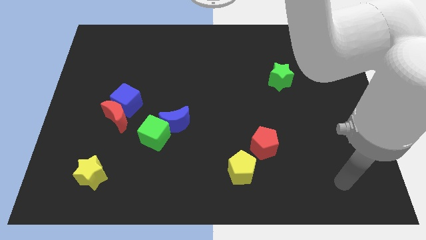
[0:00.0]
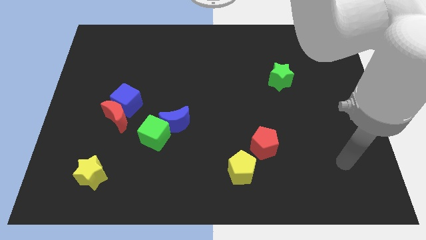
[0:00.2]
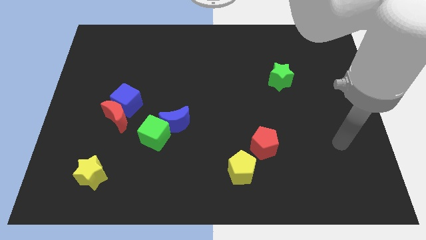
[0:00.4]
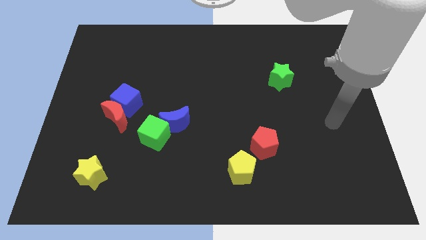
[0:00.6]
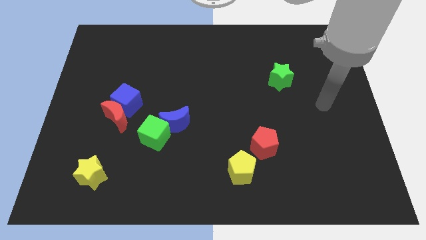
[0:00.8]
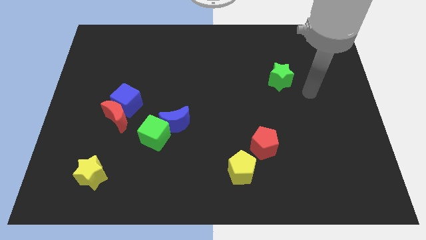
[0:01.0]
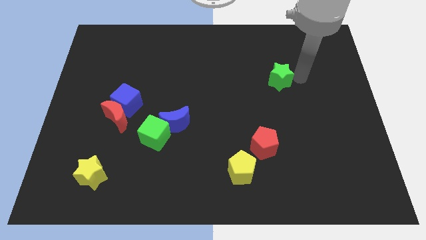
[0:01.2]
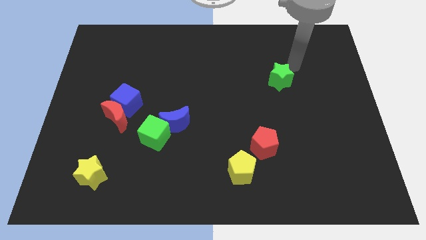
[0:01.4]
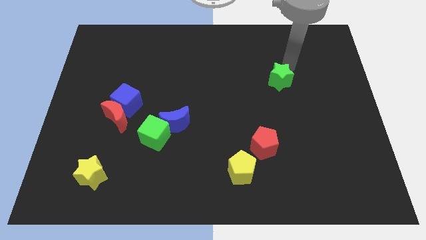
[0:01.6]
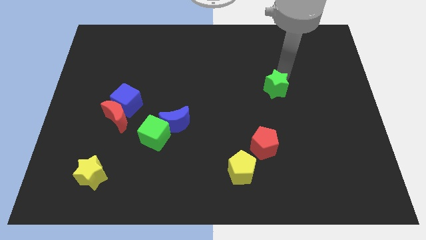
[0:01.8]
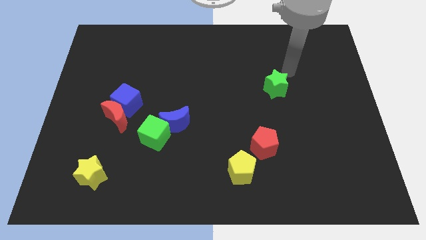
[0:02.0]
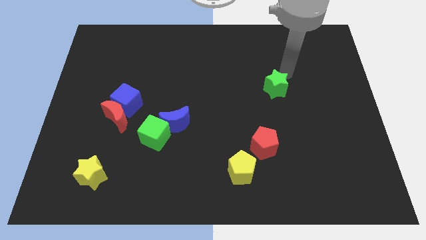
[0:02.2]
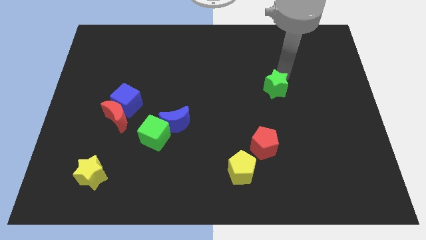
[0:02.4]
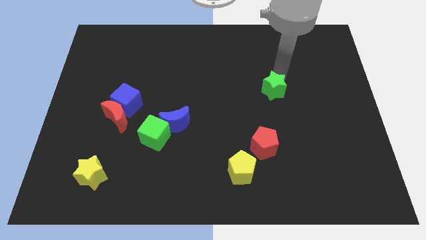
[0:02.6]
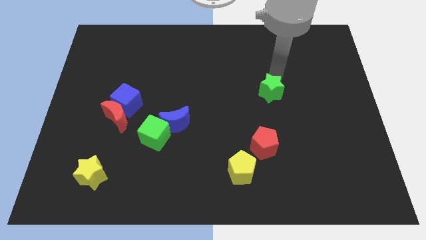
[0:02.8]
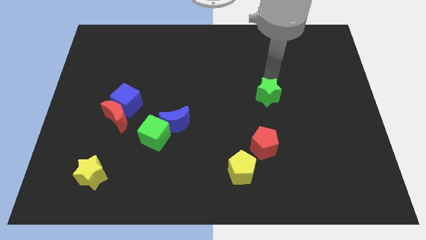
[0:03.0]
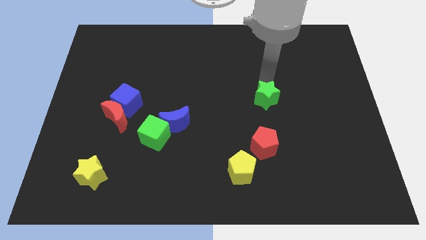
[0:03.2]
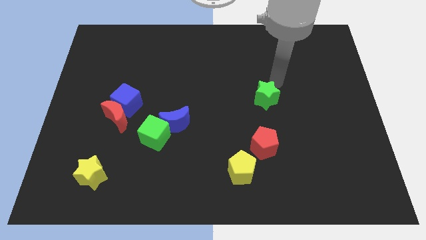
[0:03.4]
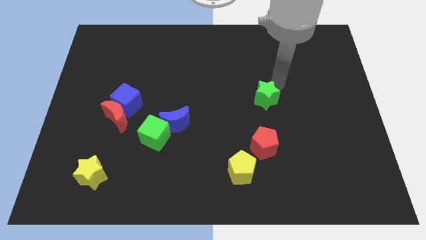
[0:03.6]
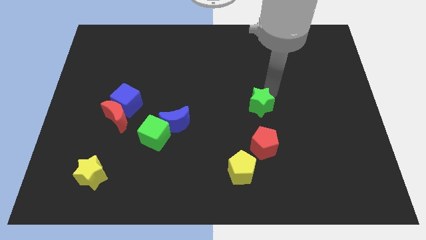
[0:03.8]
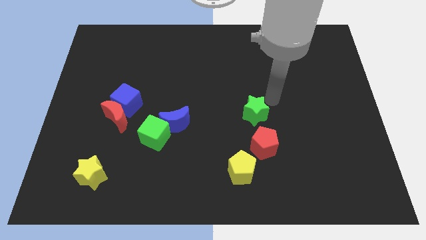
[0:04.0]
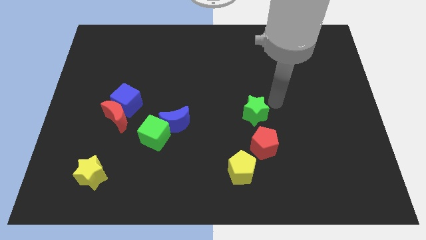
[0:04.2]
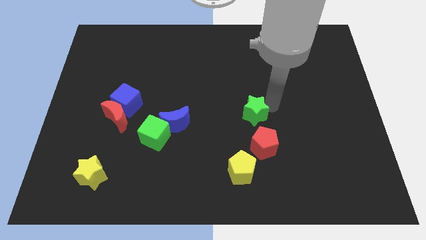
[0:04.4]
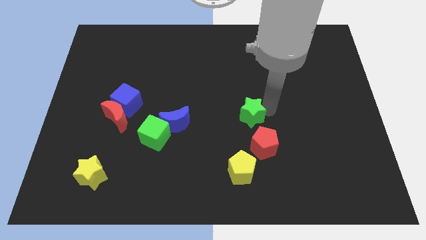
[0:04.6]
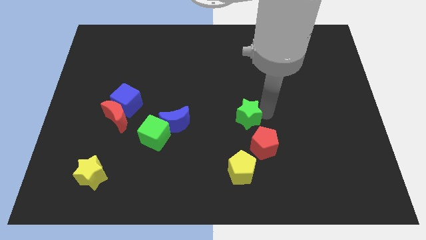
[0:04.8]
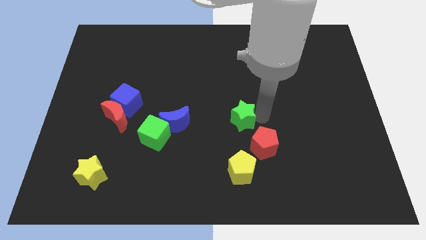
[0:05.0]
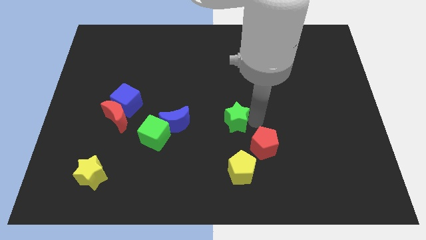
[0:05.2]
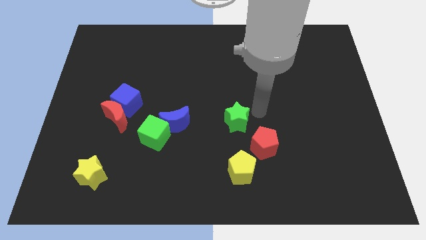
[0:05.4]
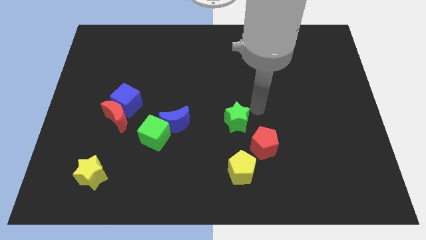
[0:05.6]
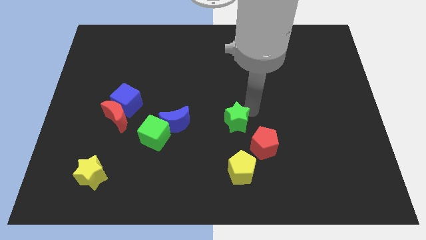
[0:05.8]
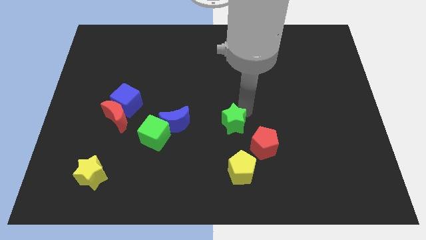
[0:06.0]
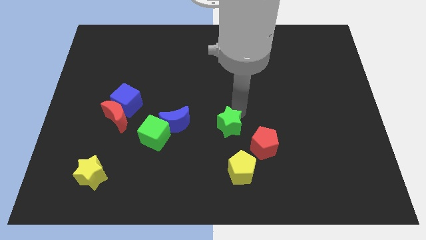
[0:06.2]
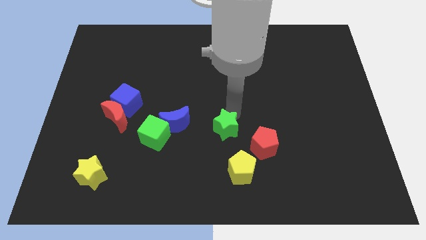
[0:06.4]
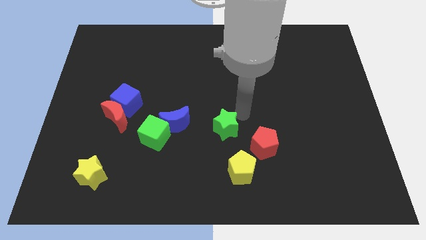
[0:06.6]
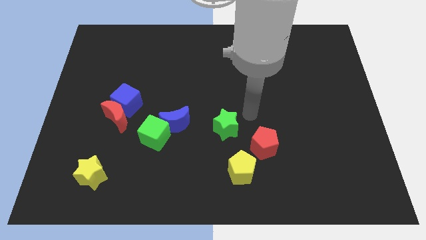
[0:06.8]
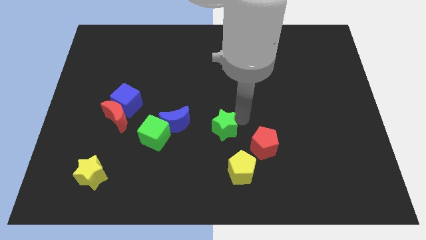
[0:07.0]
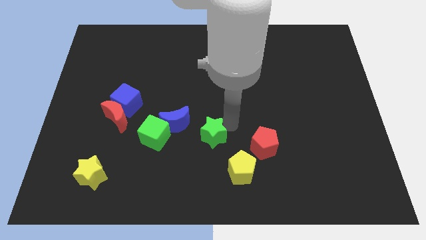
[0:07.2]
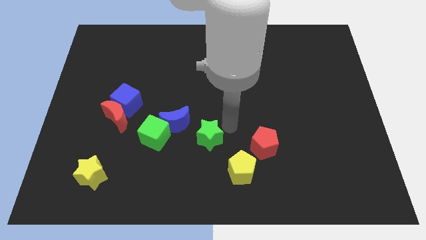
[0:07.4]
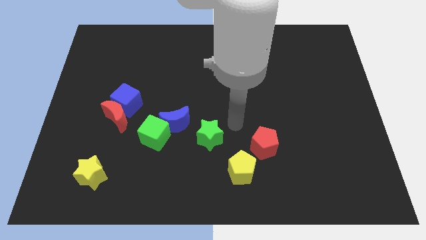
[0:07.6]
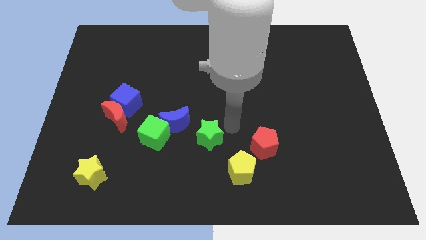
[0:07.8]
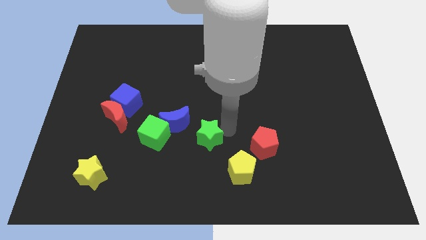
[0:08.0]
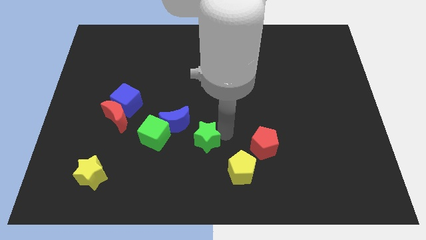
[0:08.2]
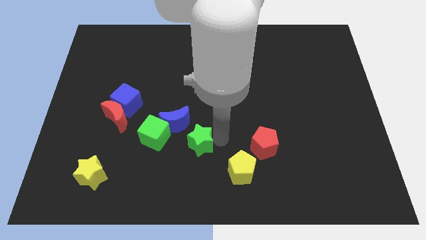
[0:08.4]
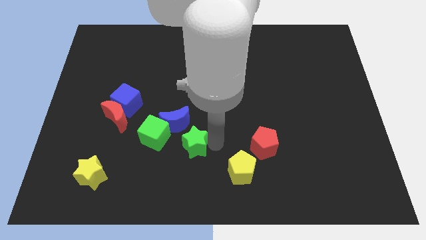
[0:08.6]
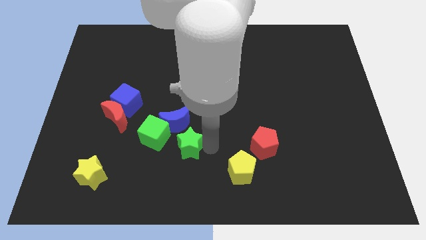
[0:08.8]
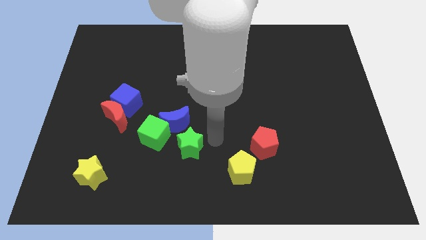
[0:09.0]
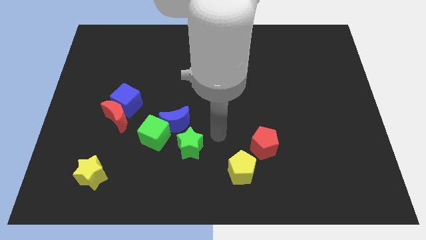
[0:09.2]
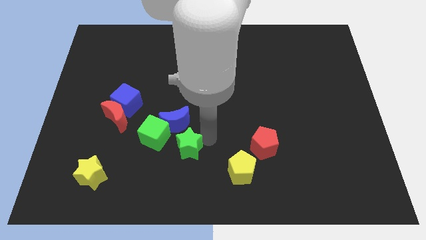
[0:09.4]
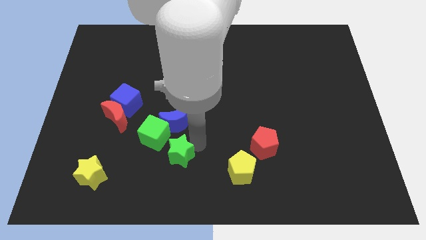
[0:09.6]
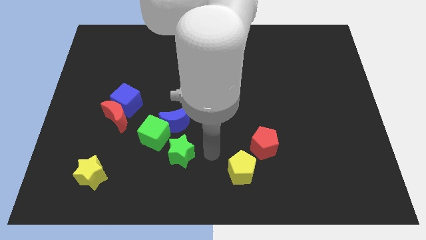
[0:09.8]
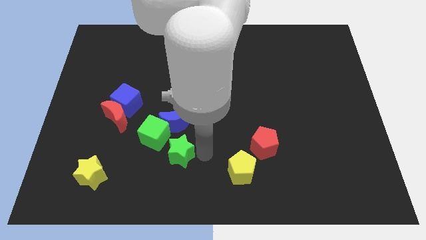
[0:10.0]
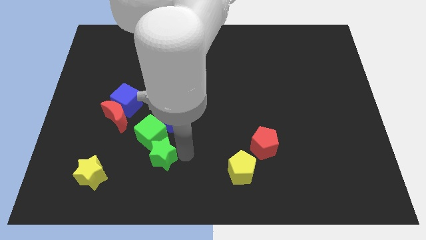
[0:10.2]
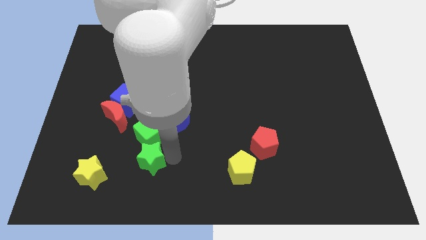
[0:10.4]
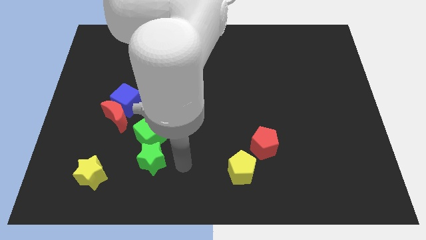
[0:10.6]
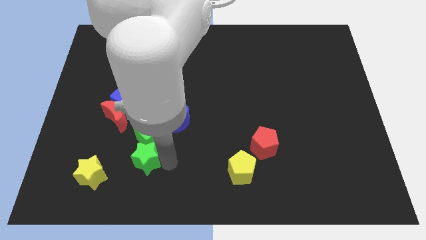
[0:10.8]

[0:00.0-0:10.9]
put the green star diagonally down and to the left of the green cube

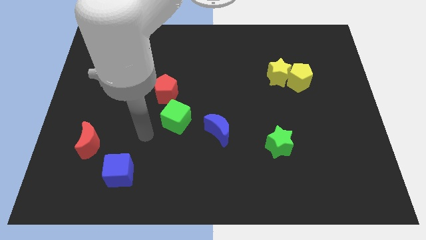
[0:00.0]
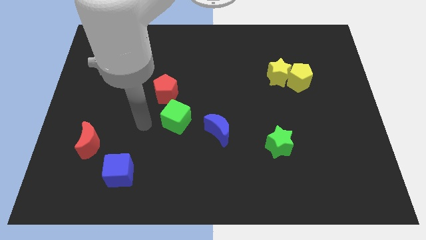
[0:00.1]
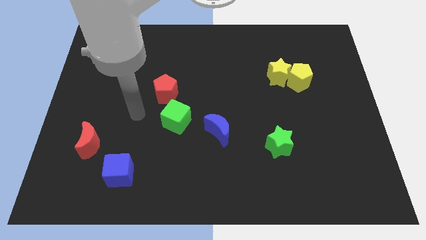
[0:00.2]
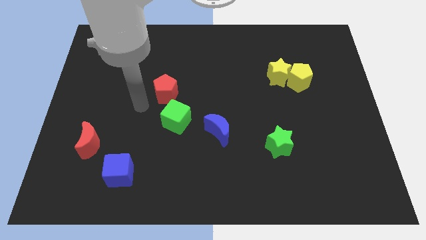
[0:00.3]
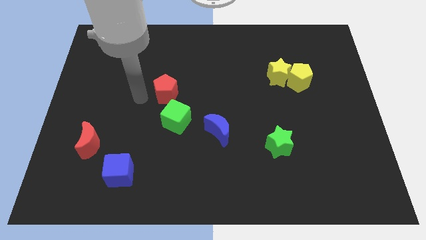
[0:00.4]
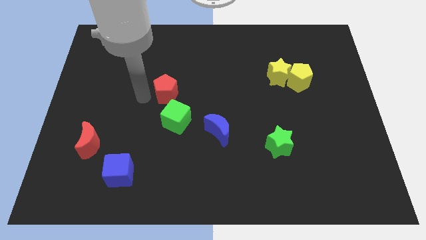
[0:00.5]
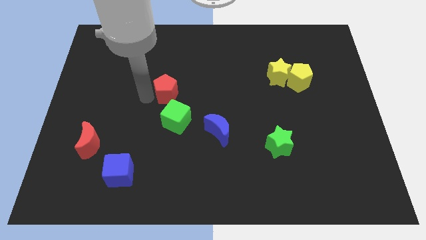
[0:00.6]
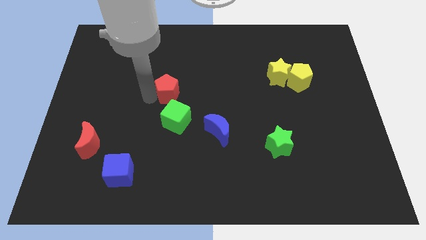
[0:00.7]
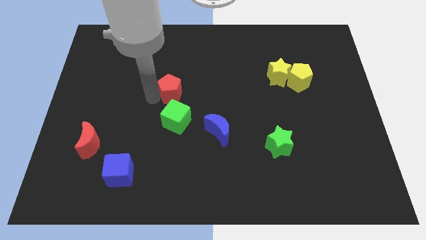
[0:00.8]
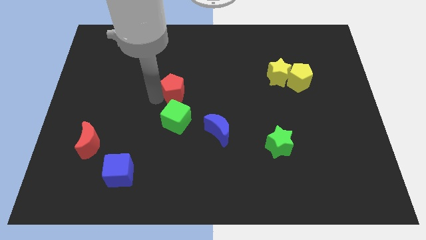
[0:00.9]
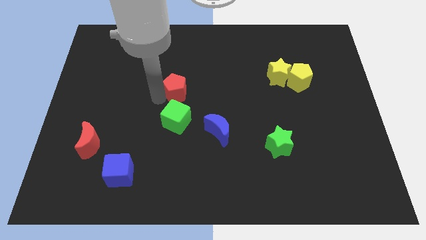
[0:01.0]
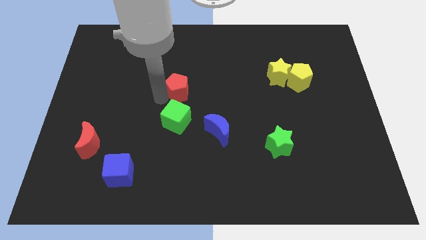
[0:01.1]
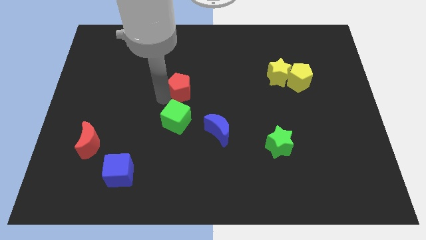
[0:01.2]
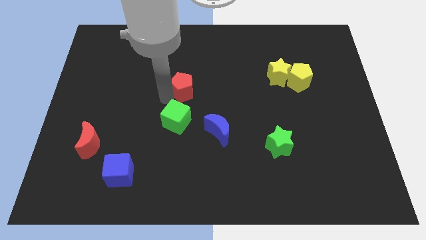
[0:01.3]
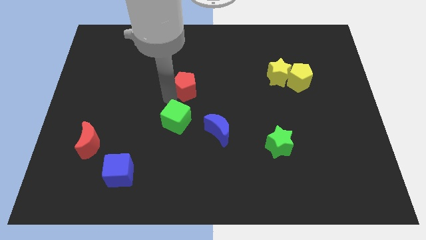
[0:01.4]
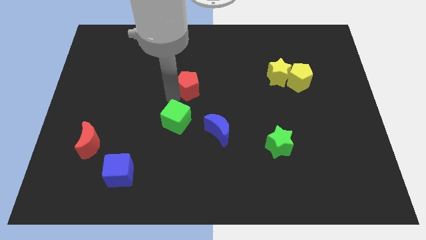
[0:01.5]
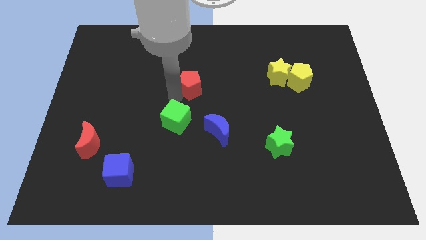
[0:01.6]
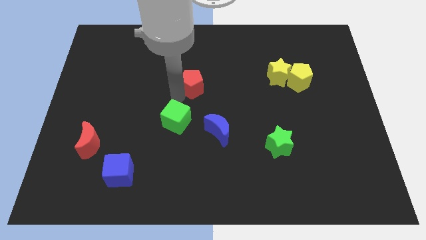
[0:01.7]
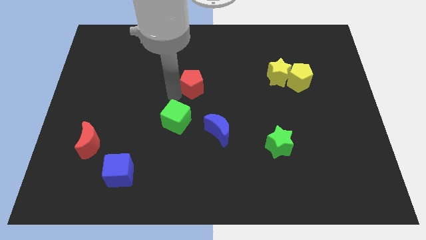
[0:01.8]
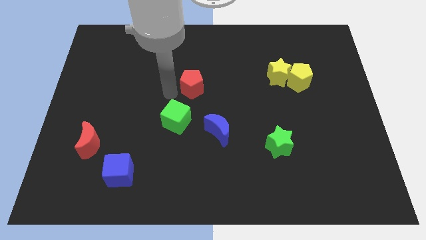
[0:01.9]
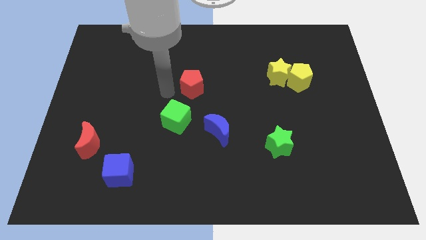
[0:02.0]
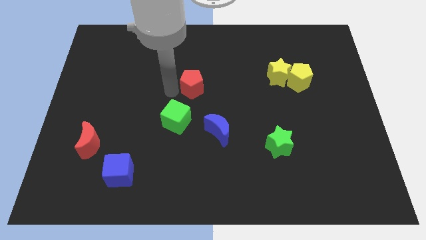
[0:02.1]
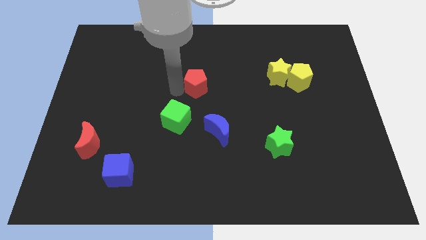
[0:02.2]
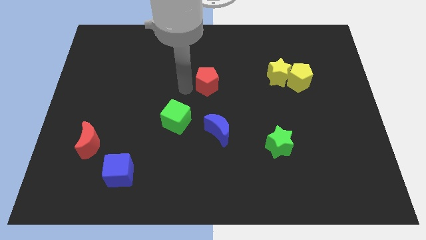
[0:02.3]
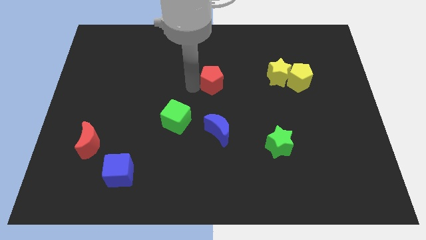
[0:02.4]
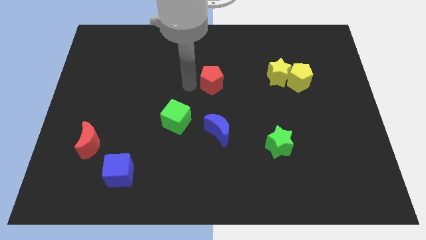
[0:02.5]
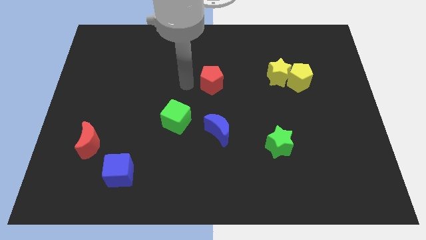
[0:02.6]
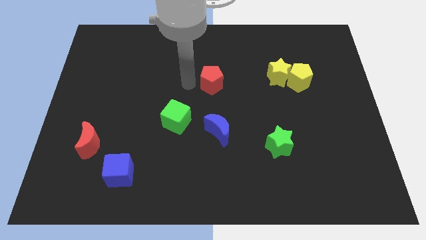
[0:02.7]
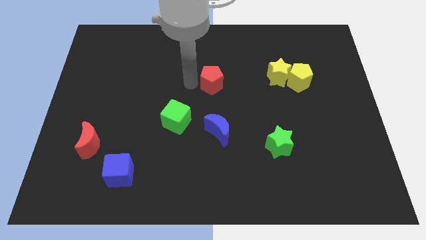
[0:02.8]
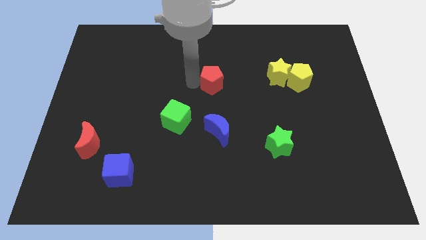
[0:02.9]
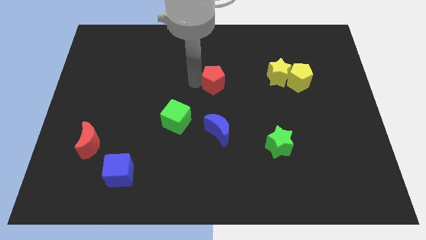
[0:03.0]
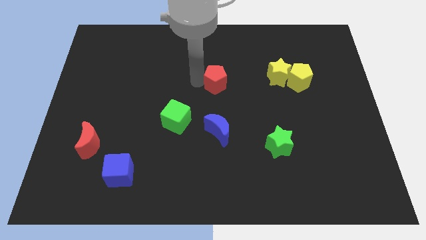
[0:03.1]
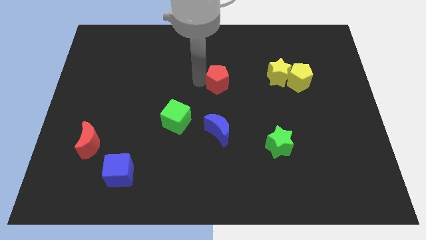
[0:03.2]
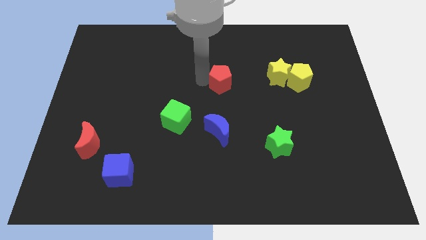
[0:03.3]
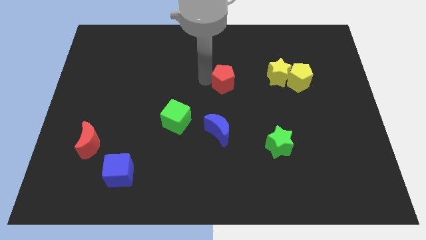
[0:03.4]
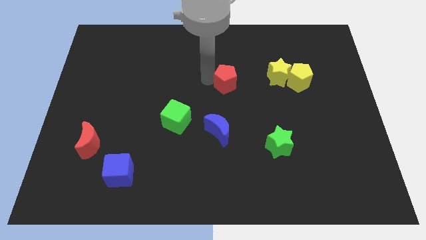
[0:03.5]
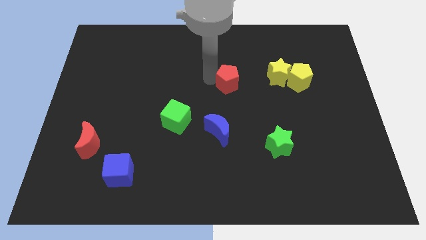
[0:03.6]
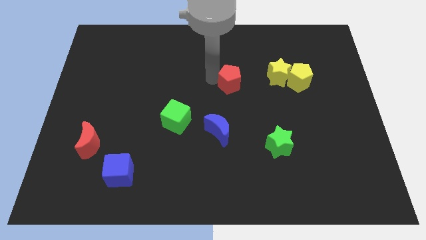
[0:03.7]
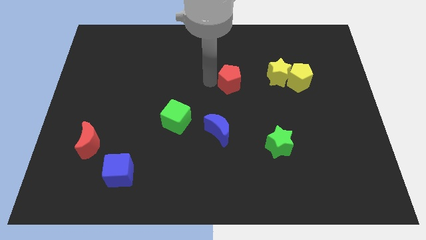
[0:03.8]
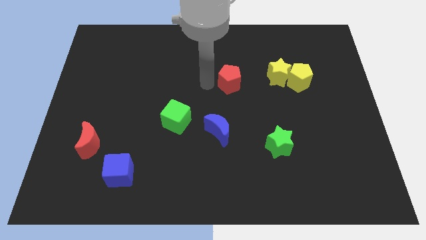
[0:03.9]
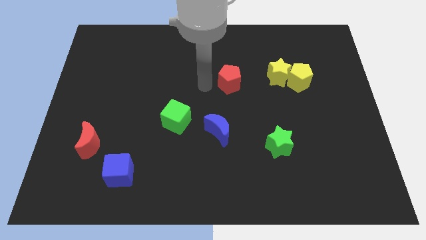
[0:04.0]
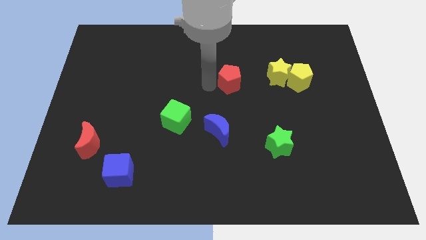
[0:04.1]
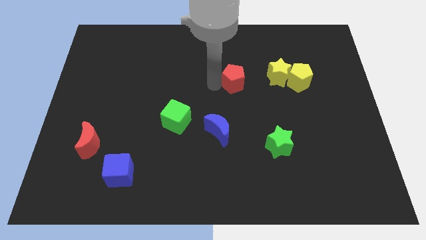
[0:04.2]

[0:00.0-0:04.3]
slide the red pentagon to the left side of the yellow pentagon
